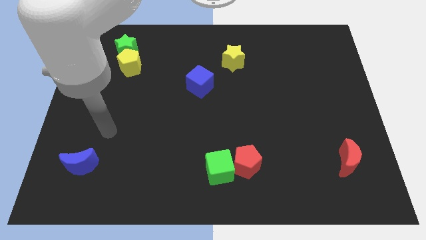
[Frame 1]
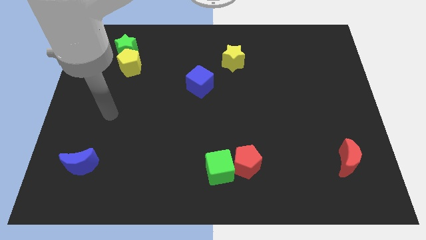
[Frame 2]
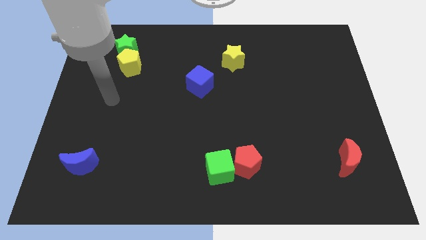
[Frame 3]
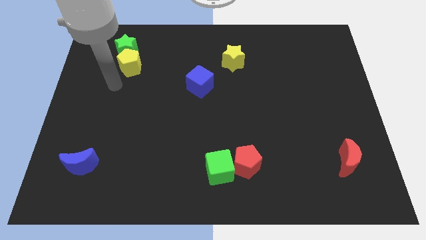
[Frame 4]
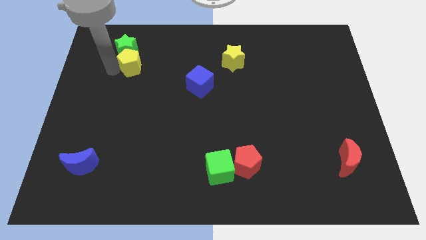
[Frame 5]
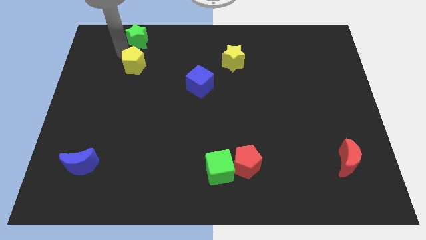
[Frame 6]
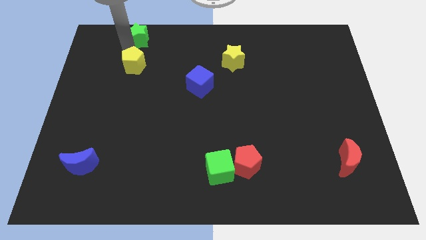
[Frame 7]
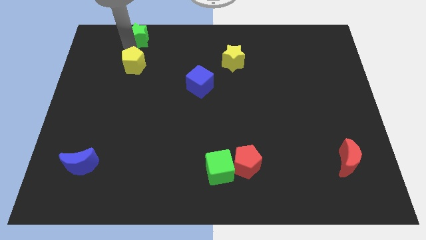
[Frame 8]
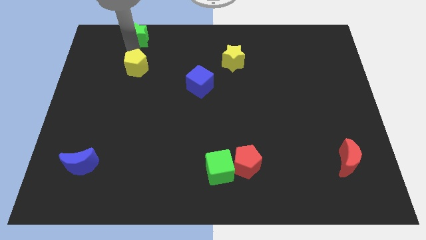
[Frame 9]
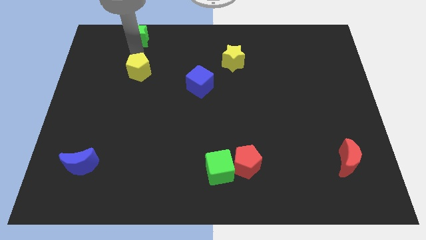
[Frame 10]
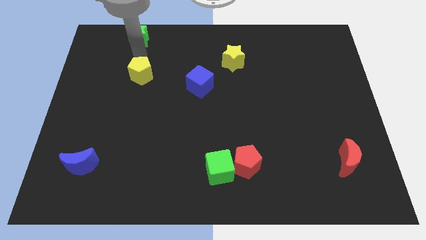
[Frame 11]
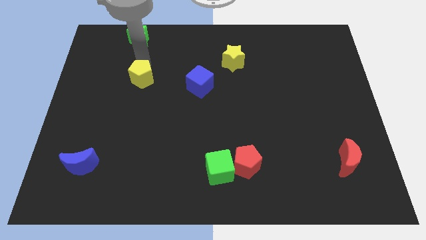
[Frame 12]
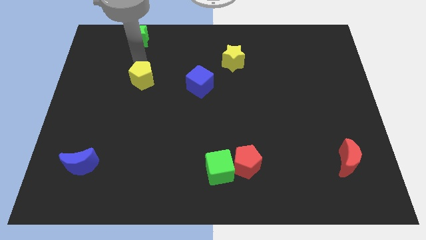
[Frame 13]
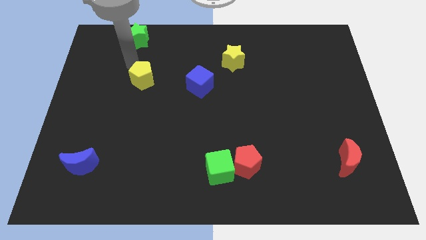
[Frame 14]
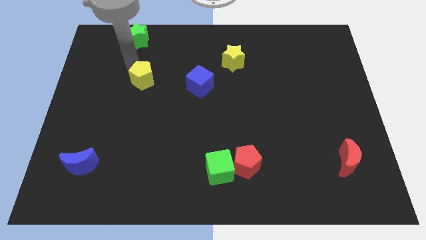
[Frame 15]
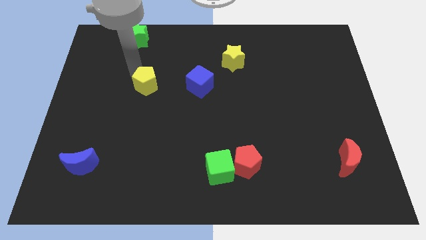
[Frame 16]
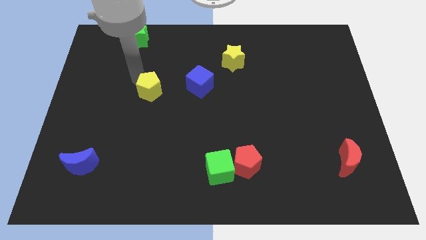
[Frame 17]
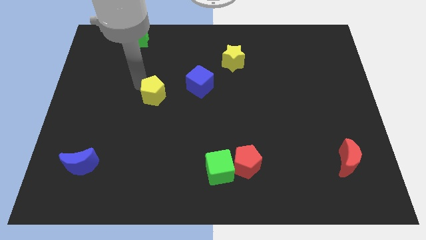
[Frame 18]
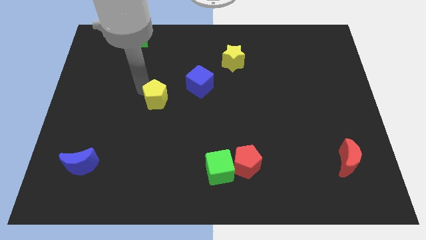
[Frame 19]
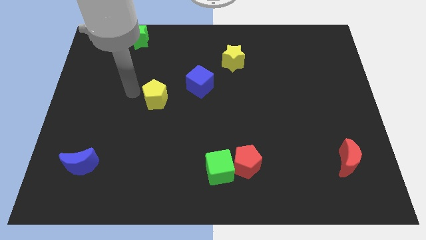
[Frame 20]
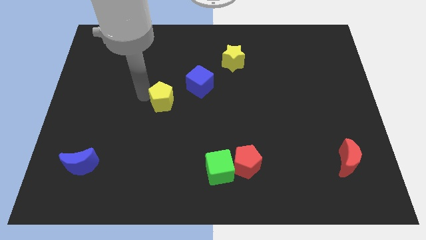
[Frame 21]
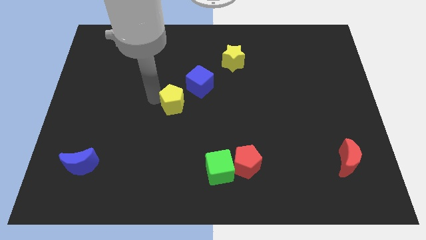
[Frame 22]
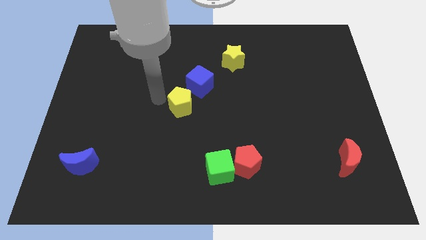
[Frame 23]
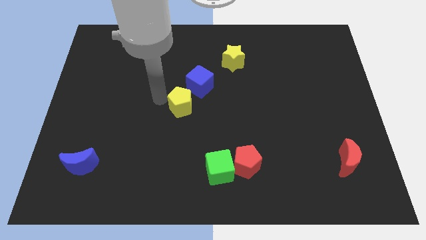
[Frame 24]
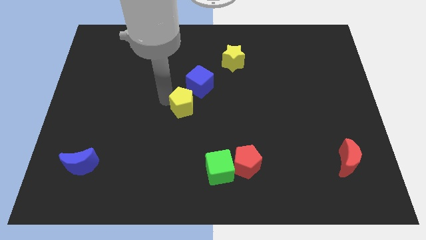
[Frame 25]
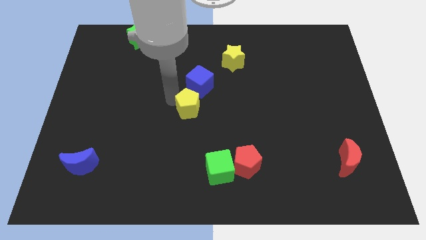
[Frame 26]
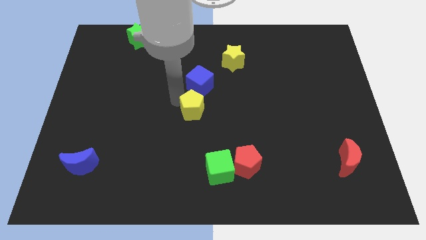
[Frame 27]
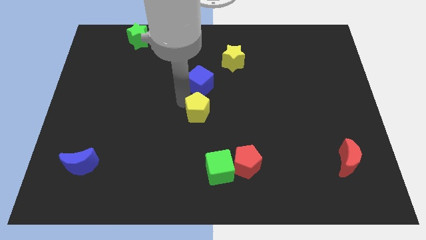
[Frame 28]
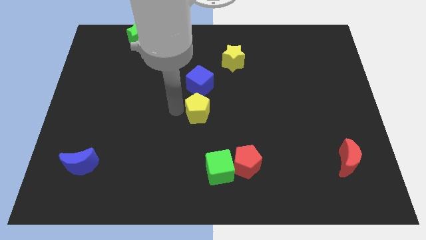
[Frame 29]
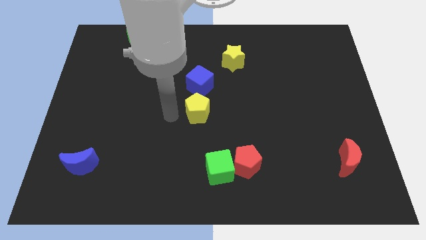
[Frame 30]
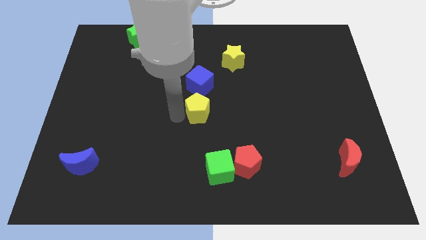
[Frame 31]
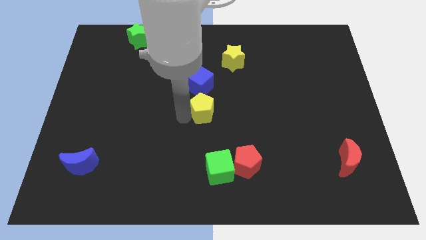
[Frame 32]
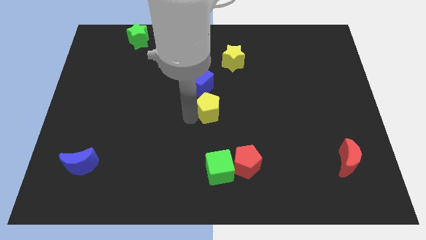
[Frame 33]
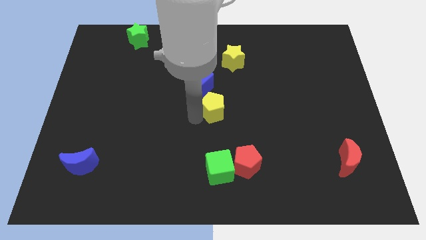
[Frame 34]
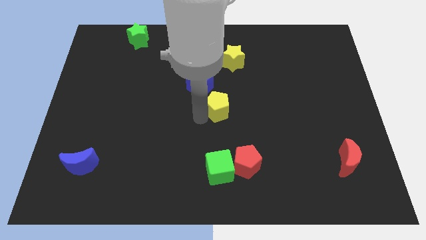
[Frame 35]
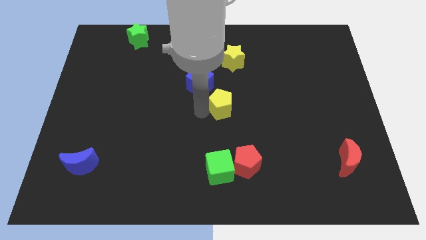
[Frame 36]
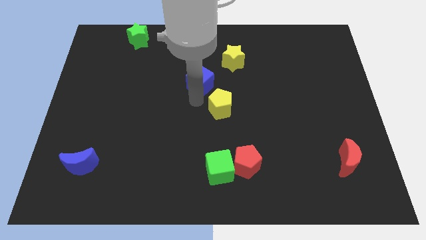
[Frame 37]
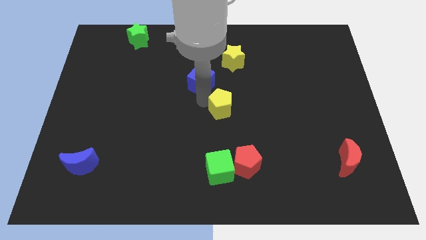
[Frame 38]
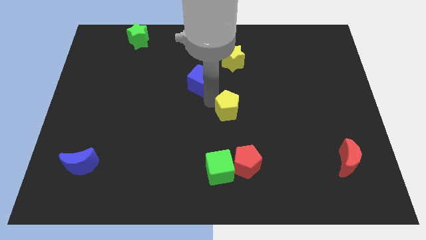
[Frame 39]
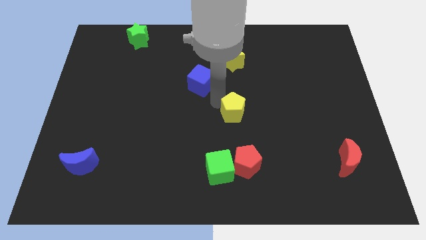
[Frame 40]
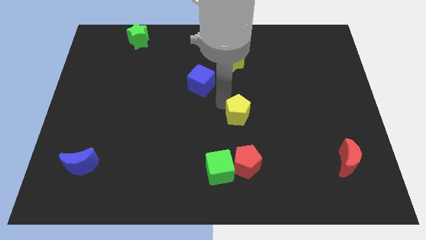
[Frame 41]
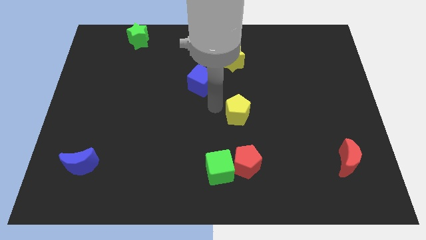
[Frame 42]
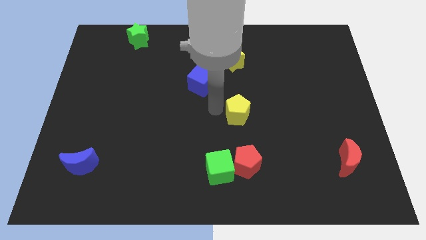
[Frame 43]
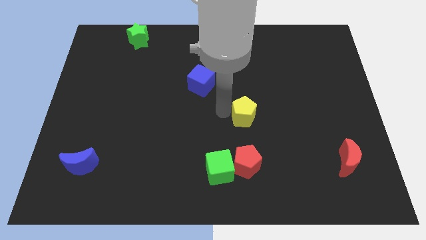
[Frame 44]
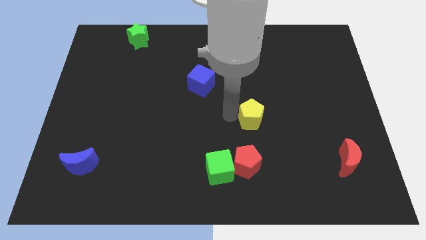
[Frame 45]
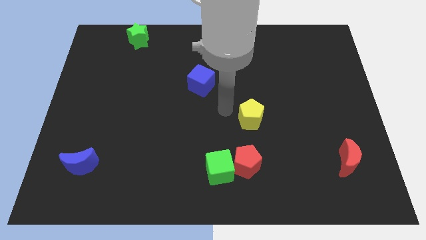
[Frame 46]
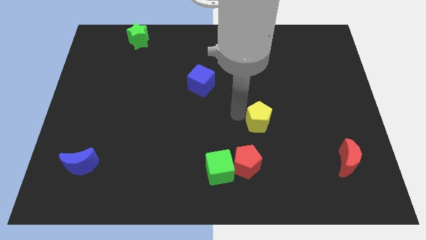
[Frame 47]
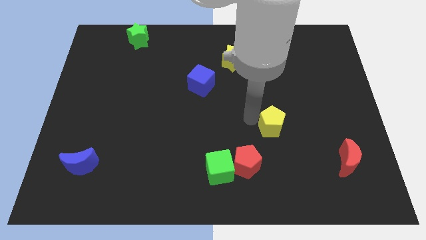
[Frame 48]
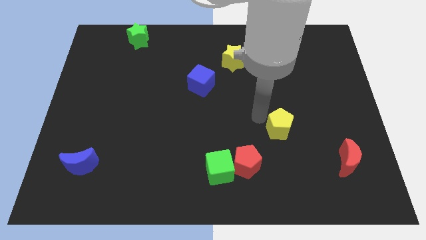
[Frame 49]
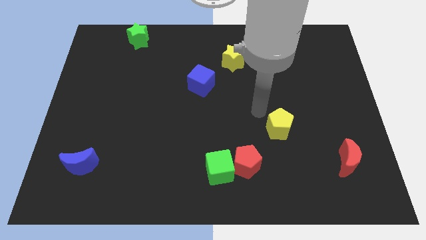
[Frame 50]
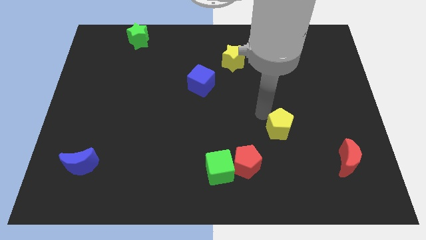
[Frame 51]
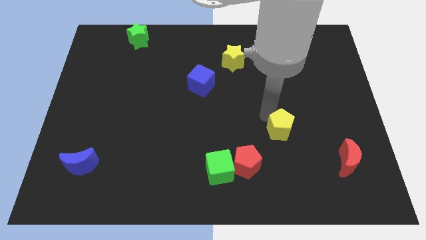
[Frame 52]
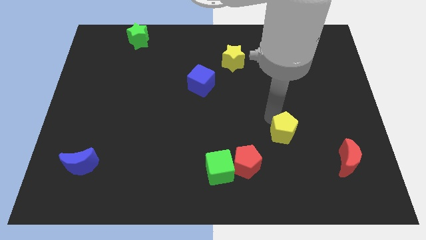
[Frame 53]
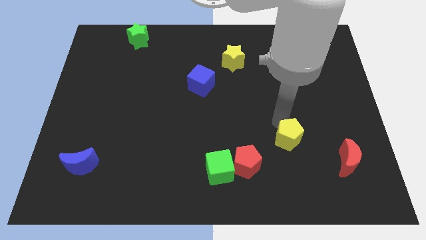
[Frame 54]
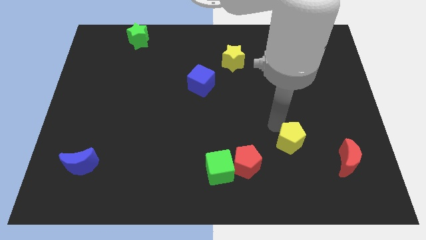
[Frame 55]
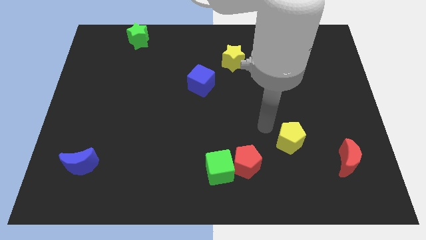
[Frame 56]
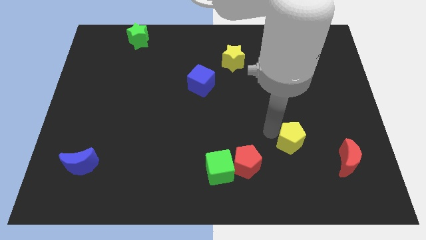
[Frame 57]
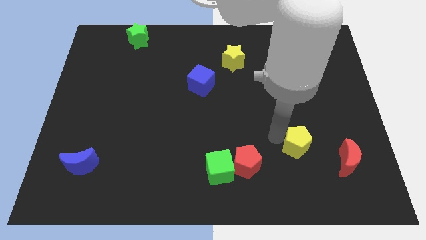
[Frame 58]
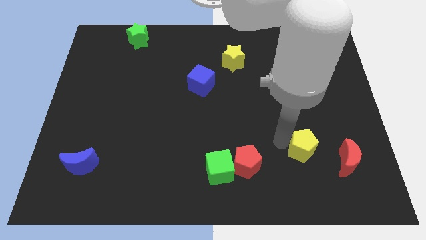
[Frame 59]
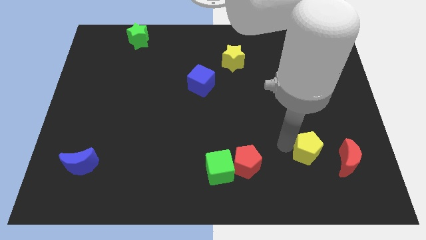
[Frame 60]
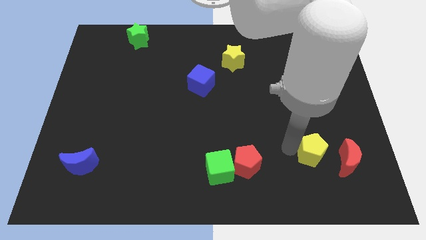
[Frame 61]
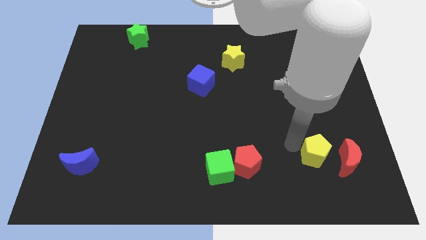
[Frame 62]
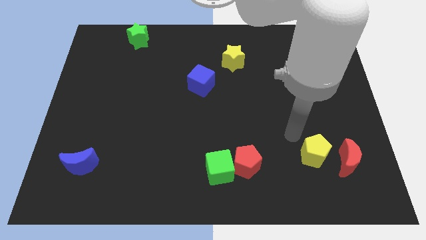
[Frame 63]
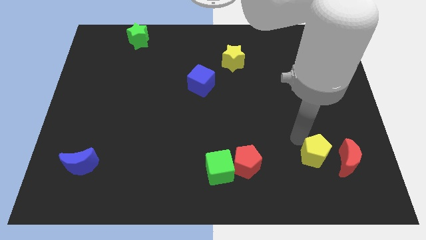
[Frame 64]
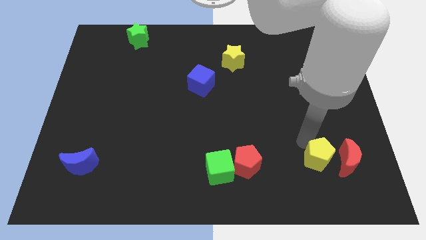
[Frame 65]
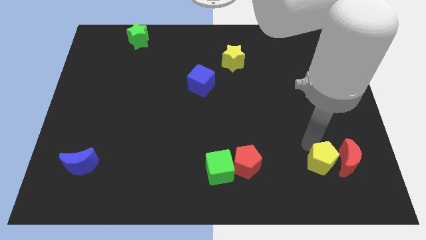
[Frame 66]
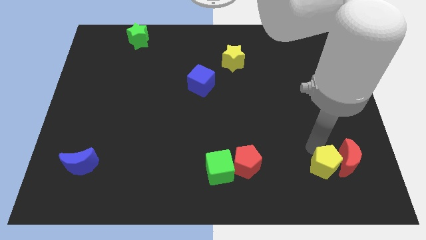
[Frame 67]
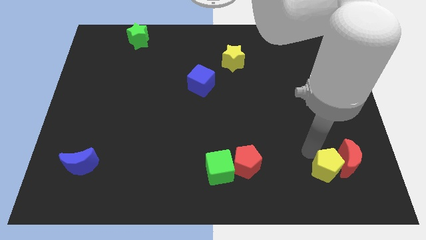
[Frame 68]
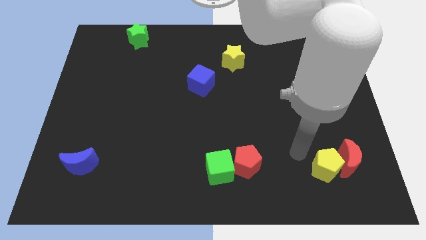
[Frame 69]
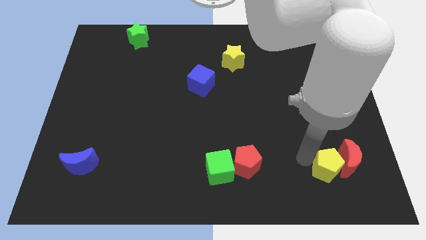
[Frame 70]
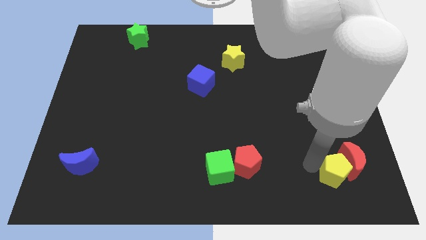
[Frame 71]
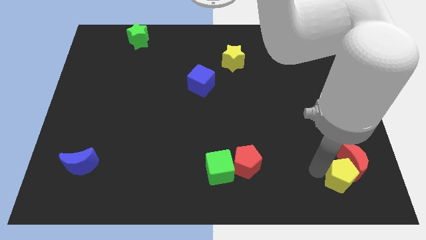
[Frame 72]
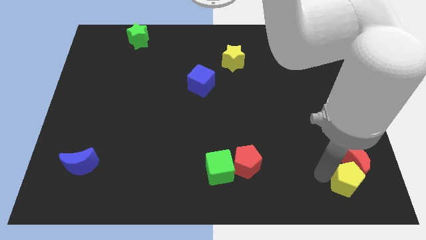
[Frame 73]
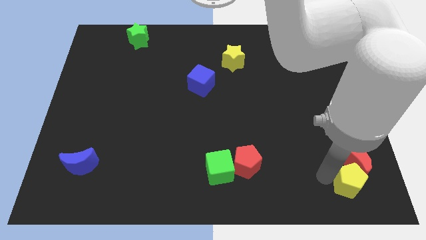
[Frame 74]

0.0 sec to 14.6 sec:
slide the yellow pentagon to the bottom right of the board
